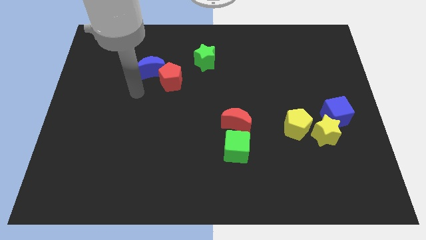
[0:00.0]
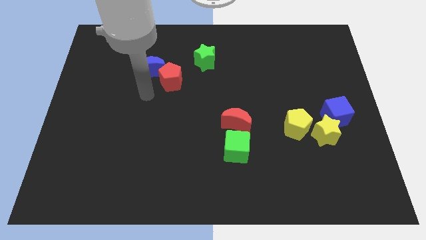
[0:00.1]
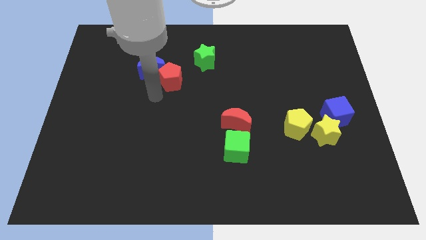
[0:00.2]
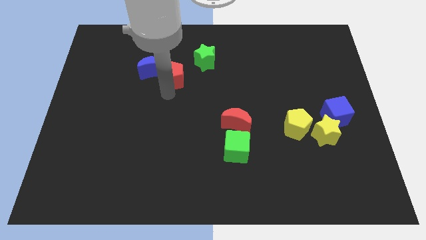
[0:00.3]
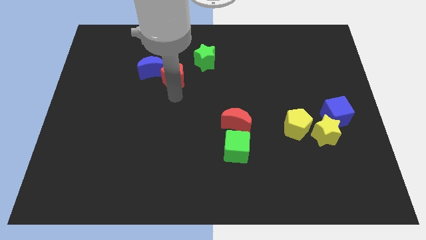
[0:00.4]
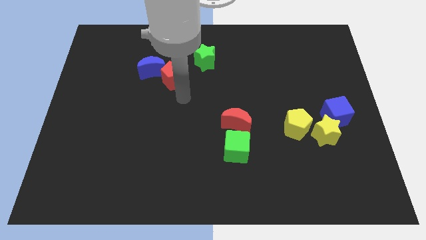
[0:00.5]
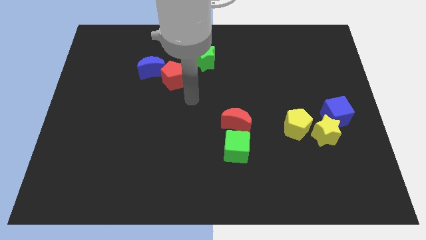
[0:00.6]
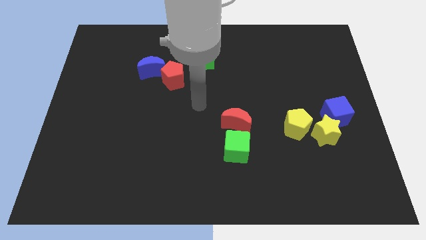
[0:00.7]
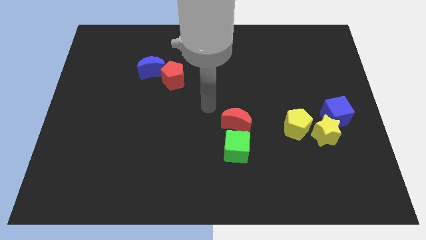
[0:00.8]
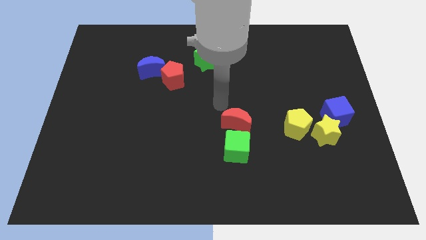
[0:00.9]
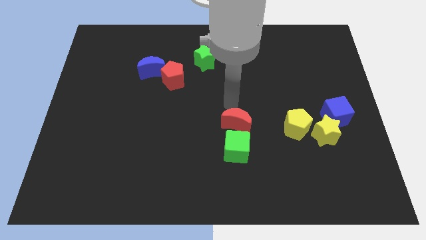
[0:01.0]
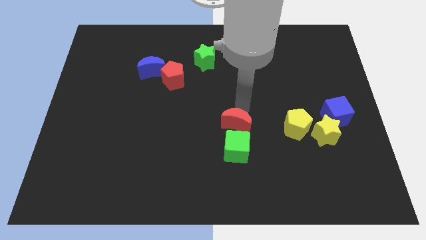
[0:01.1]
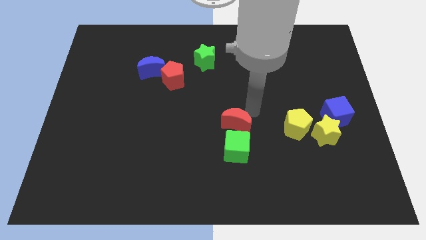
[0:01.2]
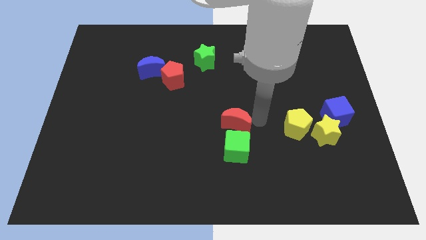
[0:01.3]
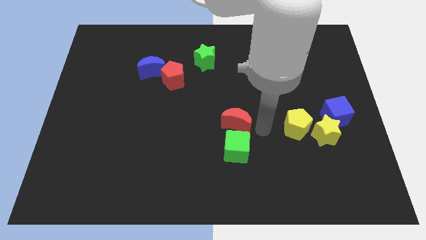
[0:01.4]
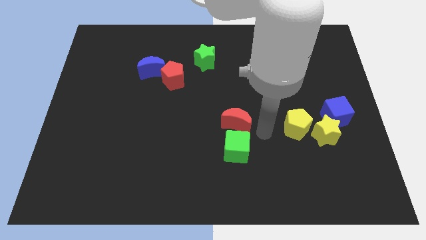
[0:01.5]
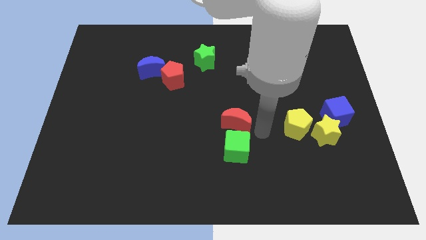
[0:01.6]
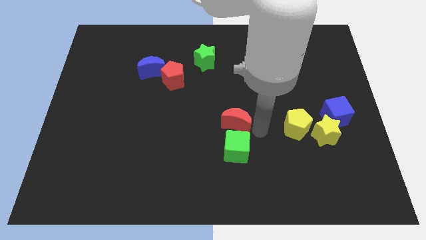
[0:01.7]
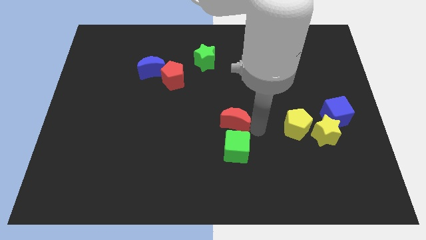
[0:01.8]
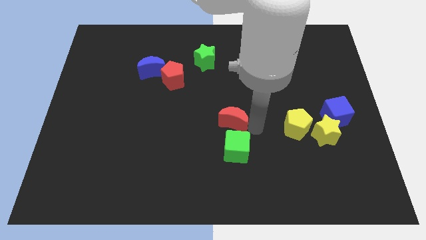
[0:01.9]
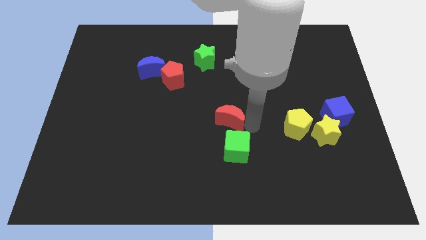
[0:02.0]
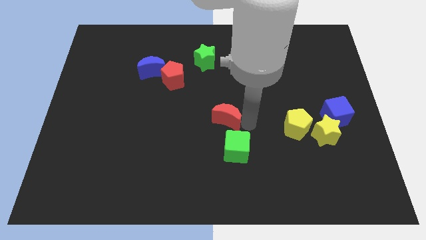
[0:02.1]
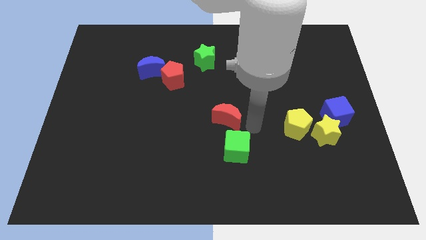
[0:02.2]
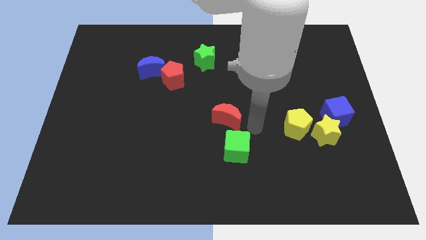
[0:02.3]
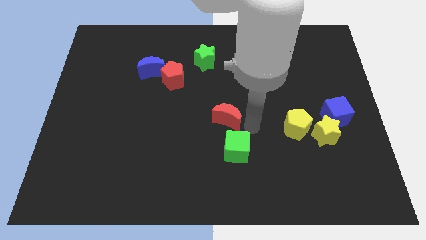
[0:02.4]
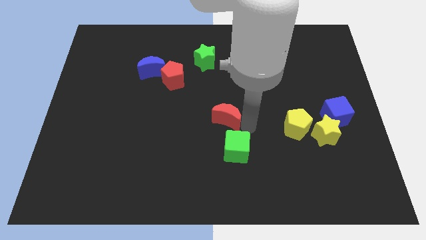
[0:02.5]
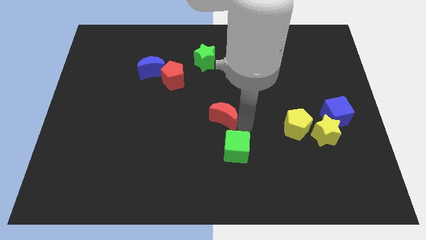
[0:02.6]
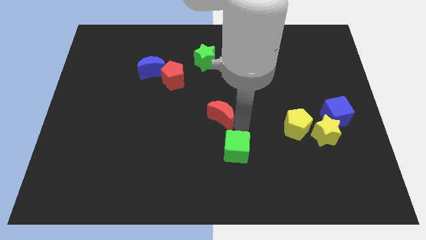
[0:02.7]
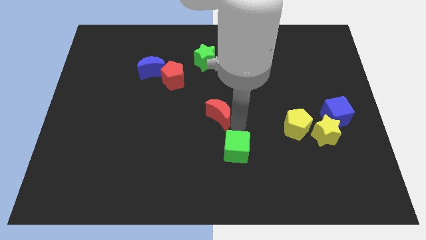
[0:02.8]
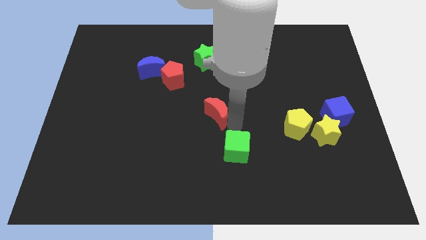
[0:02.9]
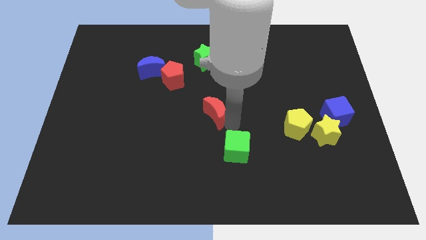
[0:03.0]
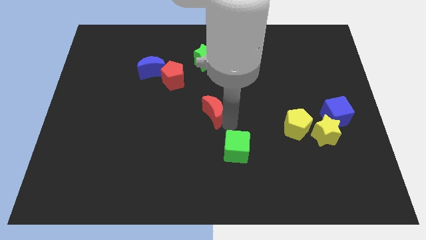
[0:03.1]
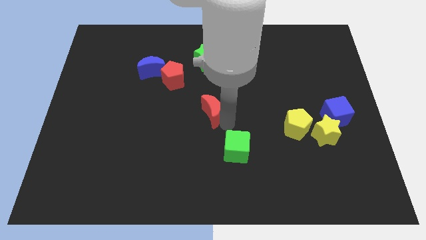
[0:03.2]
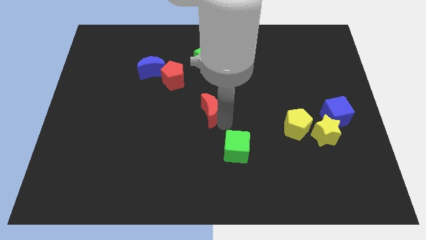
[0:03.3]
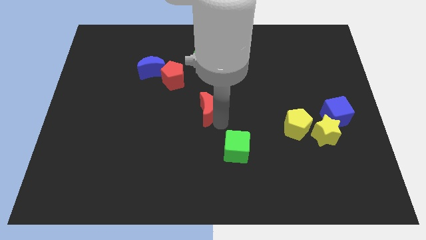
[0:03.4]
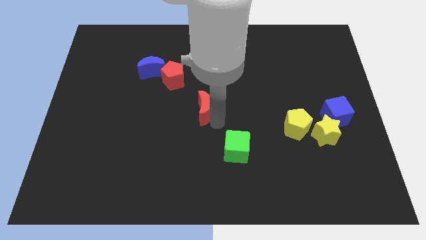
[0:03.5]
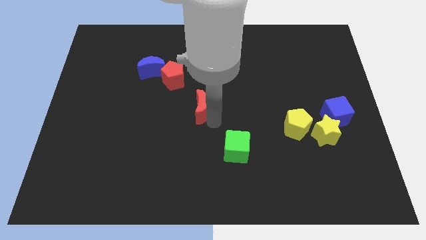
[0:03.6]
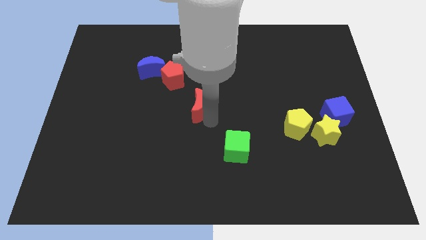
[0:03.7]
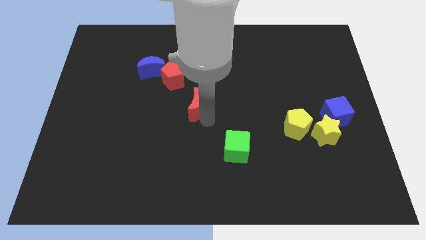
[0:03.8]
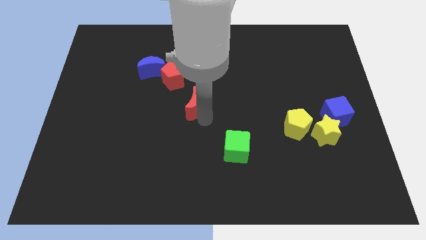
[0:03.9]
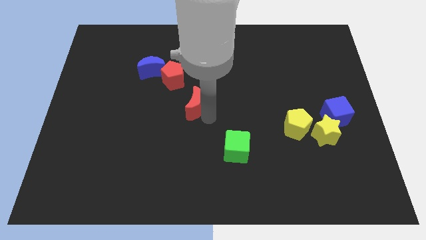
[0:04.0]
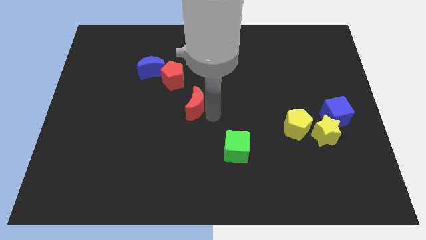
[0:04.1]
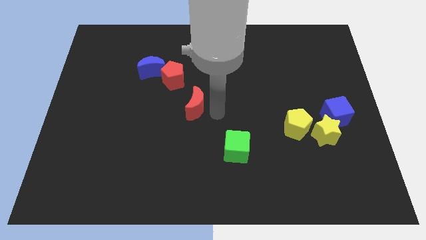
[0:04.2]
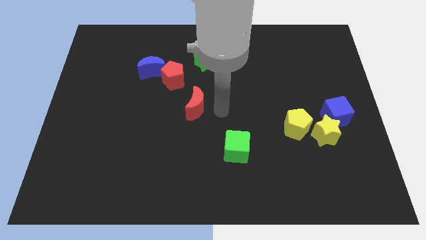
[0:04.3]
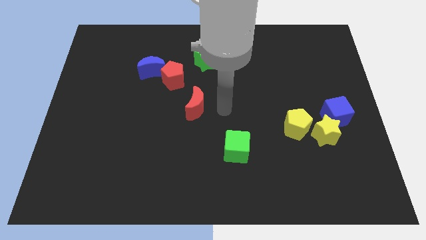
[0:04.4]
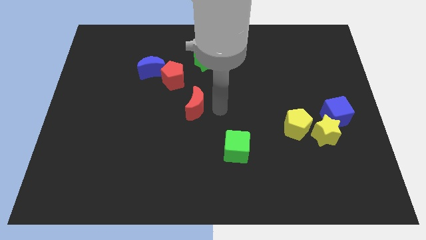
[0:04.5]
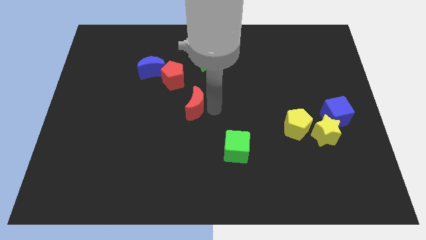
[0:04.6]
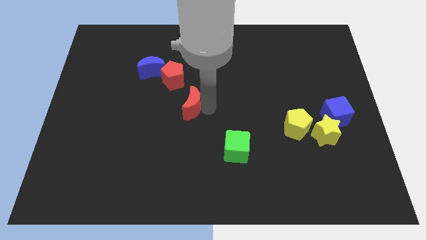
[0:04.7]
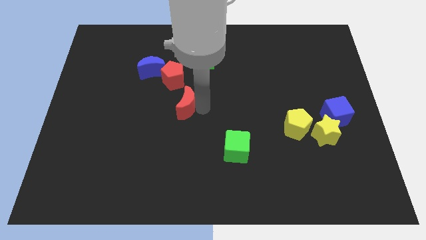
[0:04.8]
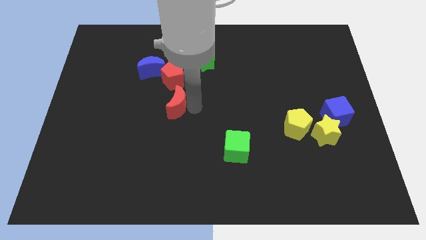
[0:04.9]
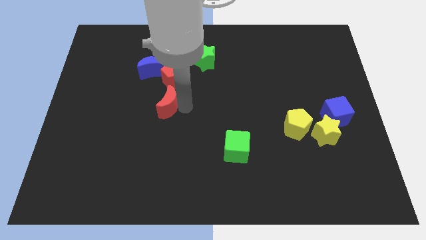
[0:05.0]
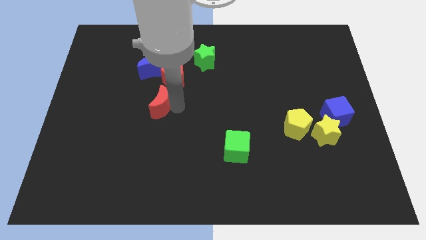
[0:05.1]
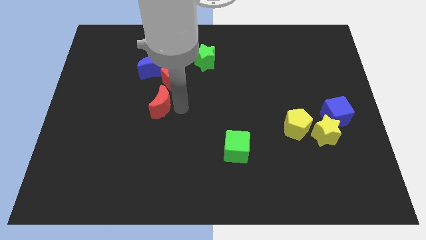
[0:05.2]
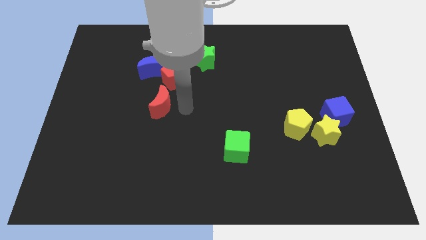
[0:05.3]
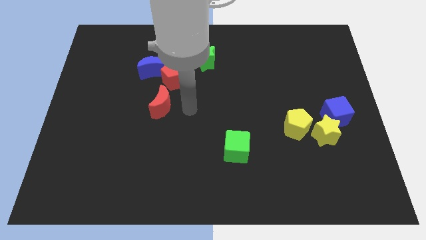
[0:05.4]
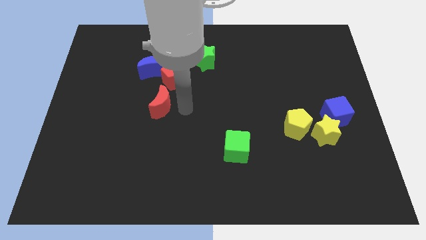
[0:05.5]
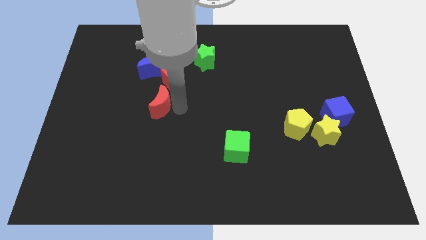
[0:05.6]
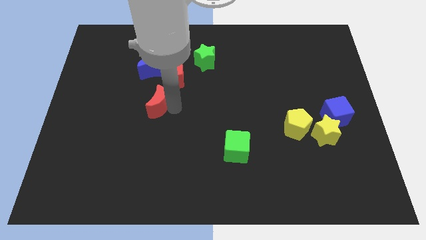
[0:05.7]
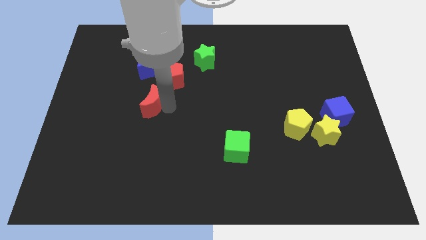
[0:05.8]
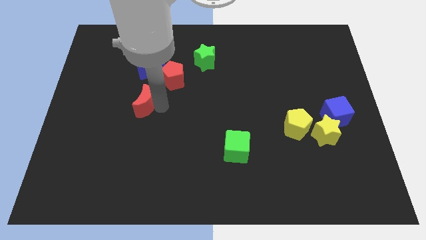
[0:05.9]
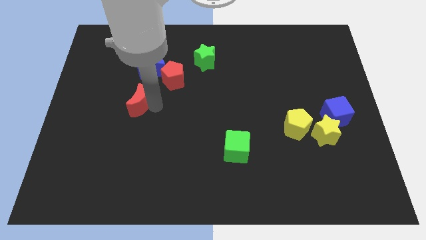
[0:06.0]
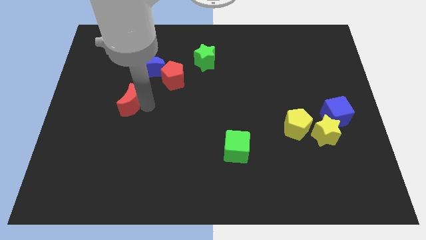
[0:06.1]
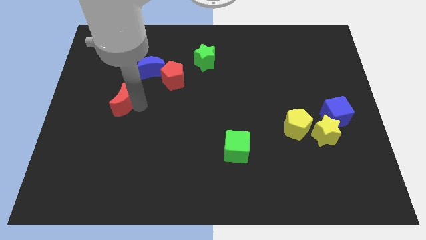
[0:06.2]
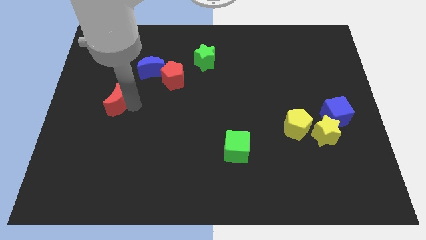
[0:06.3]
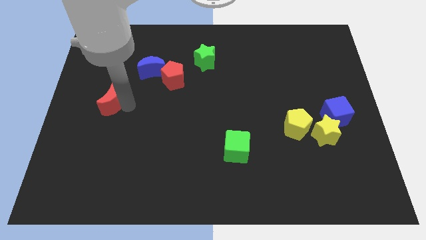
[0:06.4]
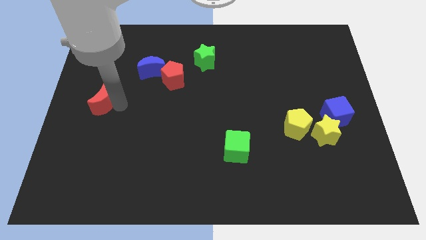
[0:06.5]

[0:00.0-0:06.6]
put the red moon to the center left
